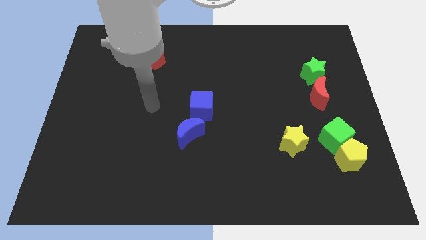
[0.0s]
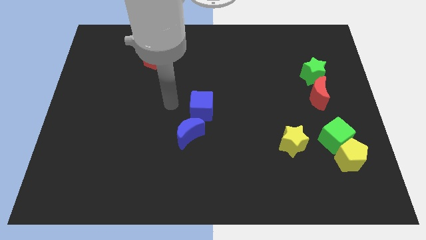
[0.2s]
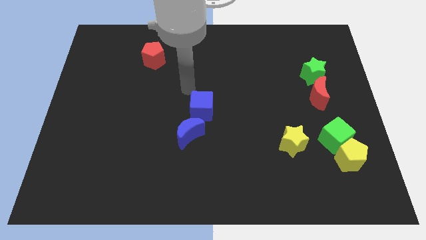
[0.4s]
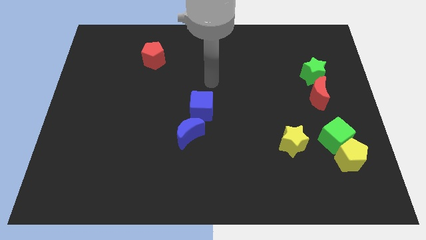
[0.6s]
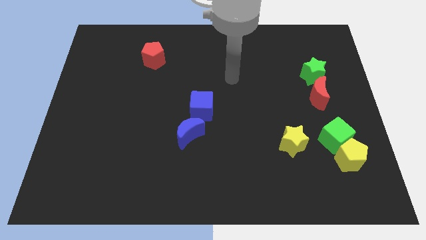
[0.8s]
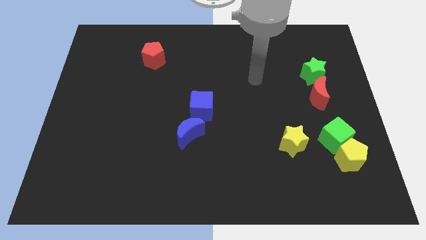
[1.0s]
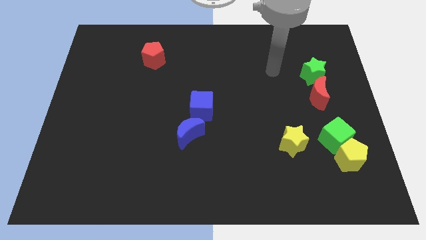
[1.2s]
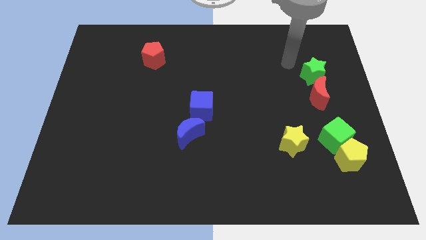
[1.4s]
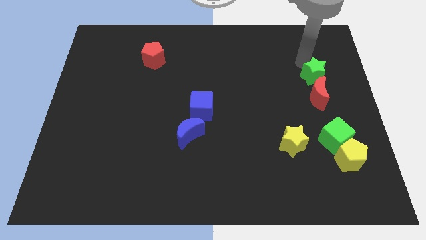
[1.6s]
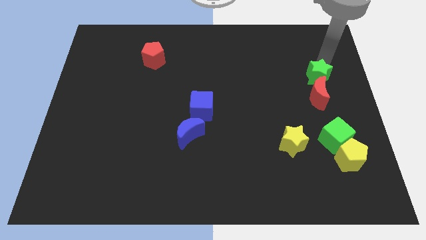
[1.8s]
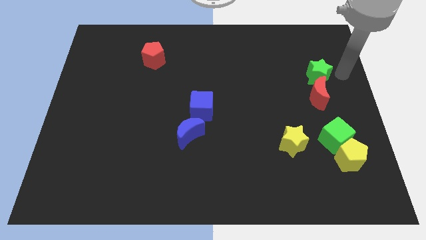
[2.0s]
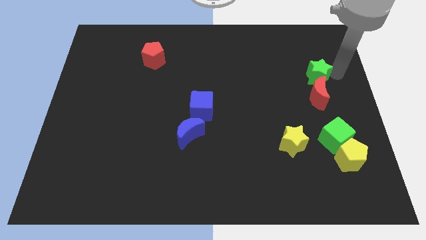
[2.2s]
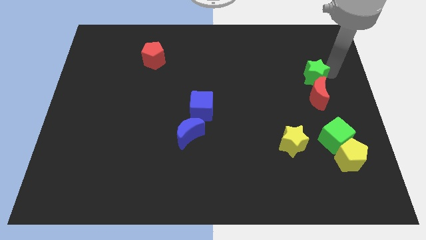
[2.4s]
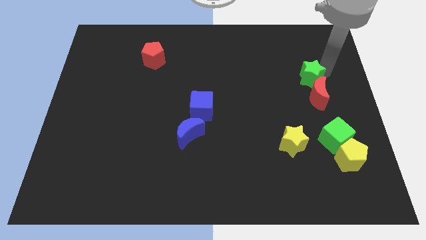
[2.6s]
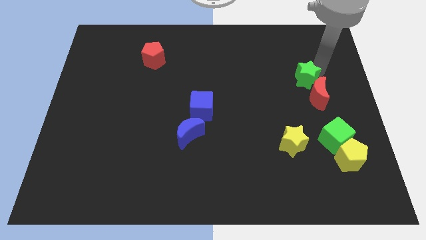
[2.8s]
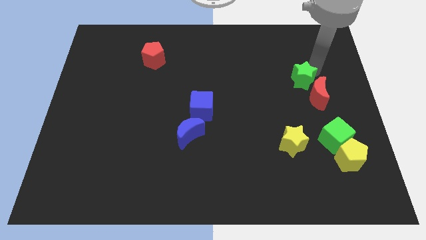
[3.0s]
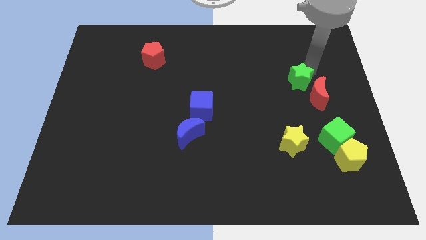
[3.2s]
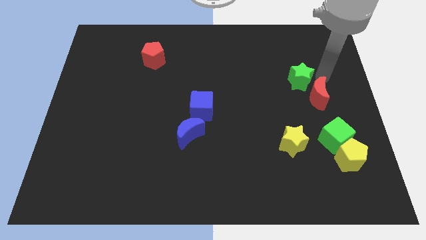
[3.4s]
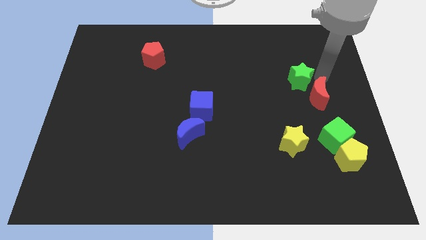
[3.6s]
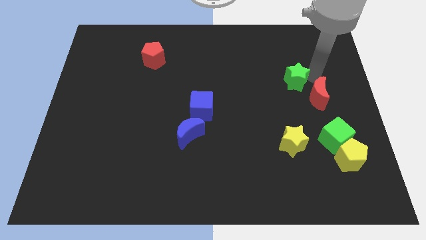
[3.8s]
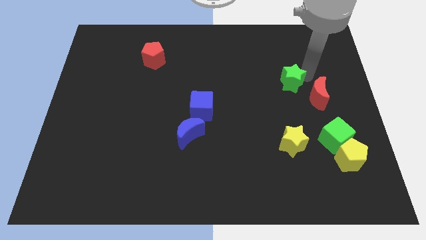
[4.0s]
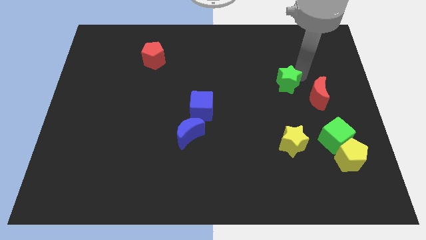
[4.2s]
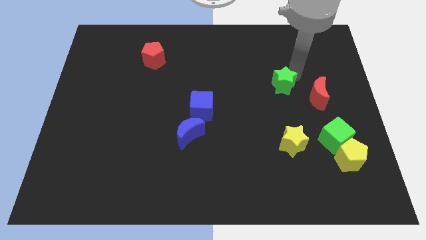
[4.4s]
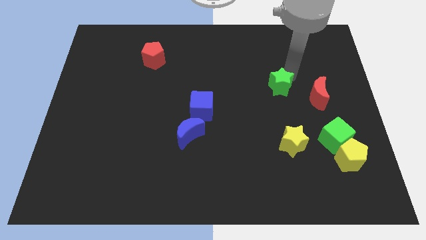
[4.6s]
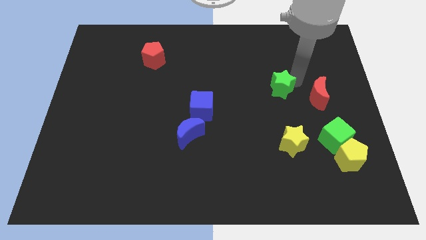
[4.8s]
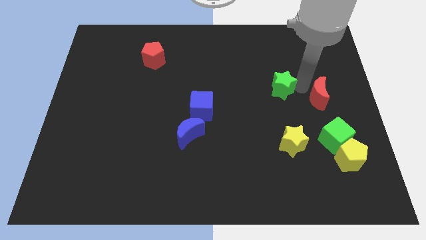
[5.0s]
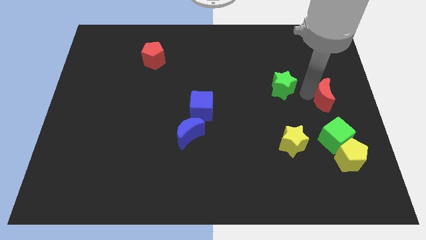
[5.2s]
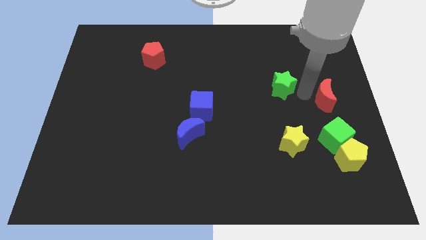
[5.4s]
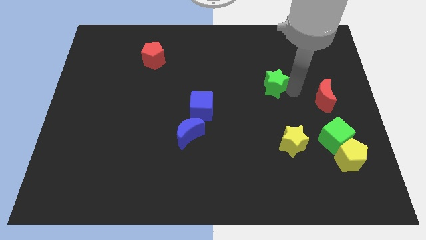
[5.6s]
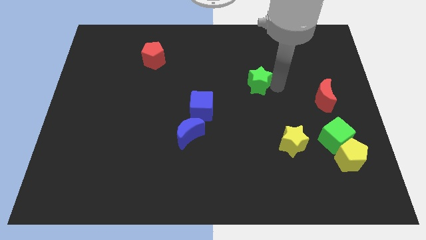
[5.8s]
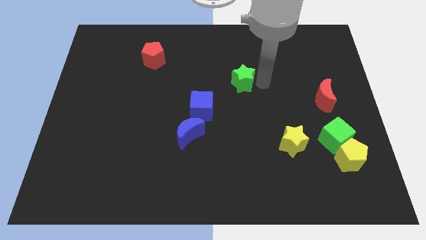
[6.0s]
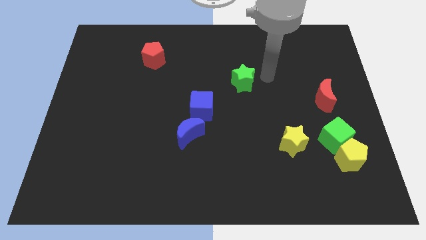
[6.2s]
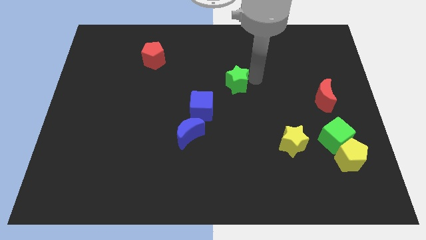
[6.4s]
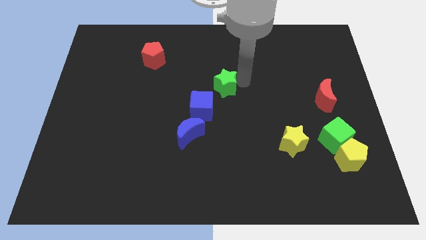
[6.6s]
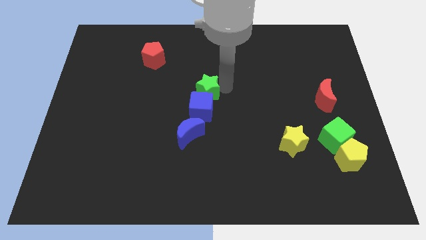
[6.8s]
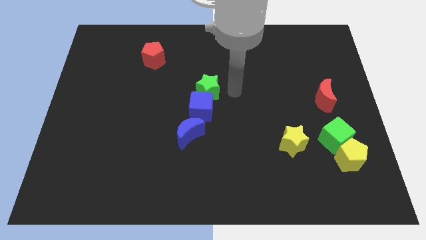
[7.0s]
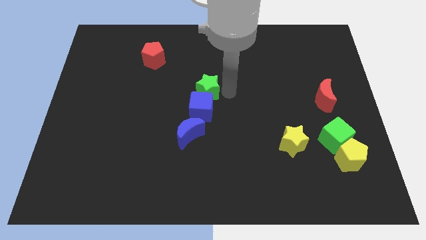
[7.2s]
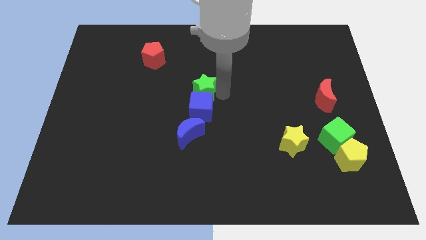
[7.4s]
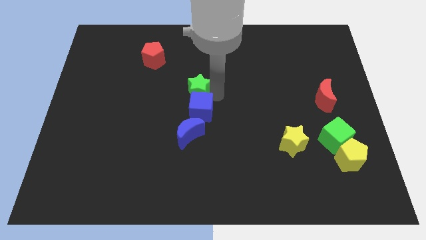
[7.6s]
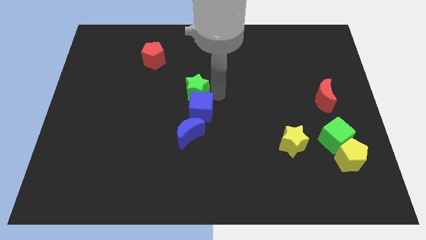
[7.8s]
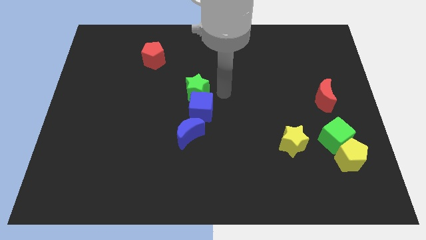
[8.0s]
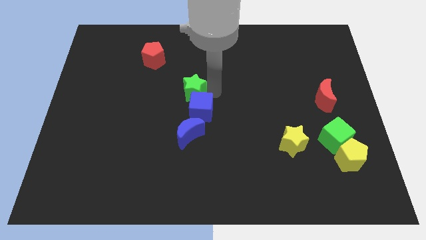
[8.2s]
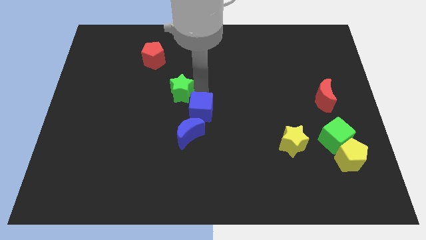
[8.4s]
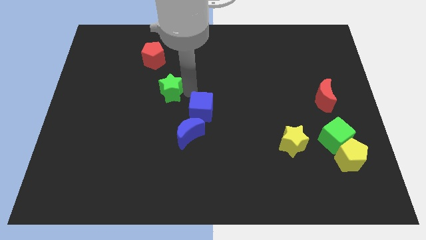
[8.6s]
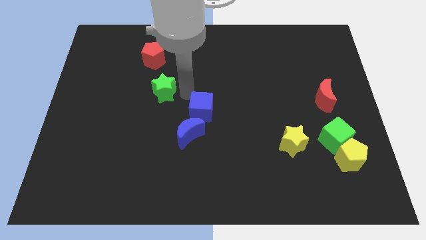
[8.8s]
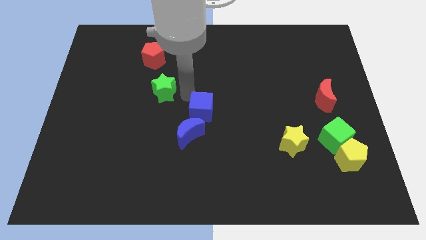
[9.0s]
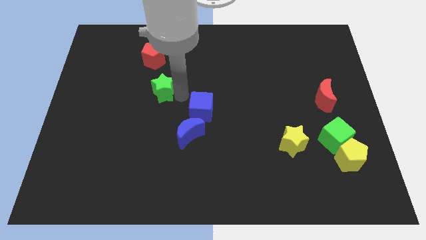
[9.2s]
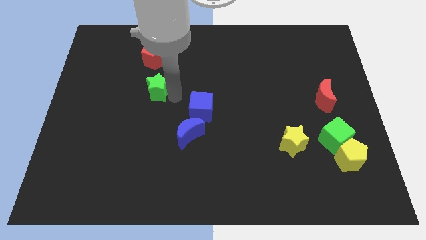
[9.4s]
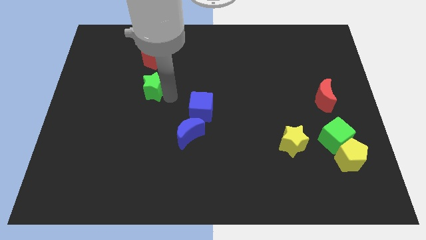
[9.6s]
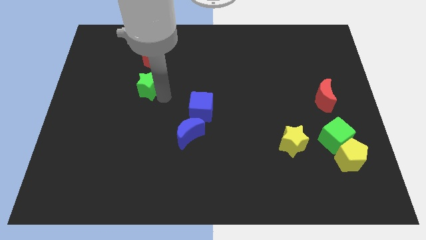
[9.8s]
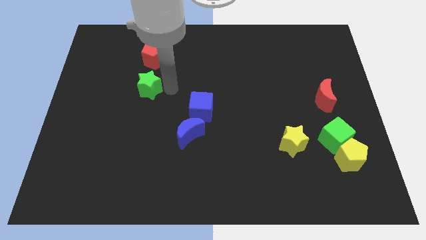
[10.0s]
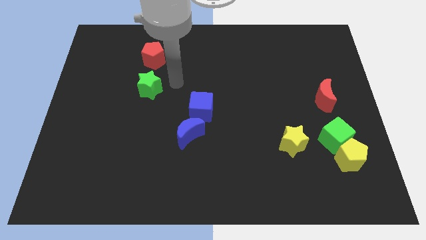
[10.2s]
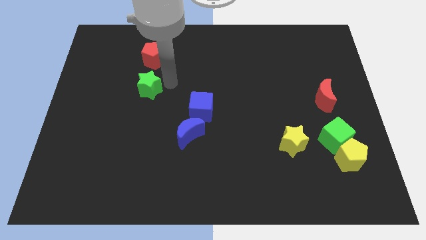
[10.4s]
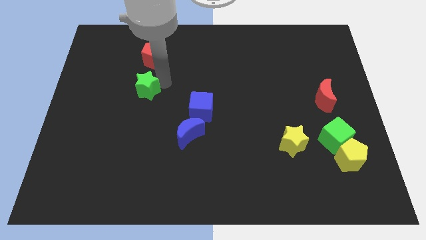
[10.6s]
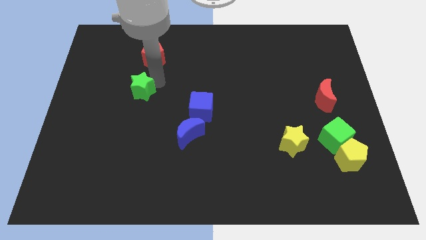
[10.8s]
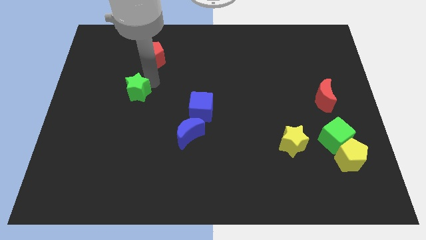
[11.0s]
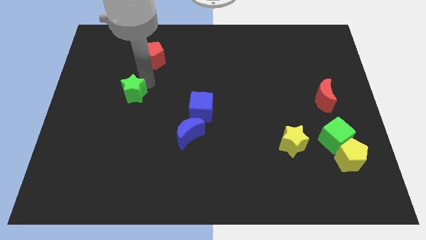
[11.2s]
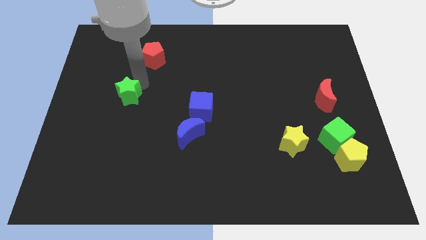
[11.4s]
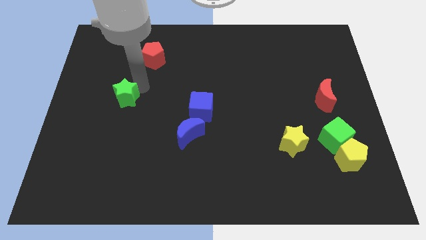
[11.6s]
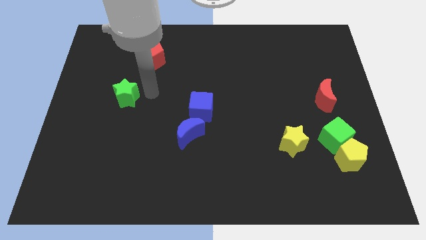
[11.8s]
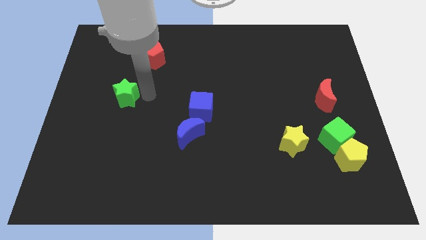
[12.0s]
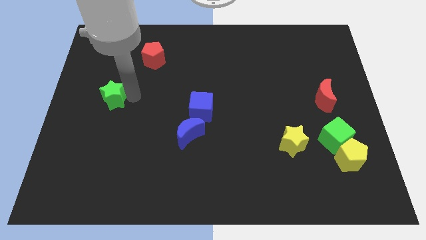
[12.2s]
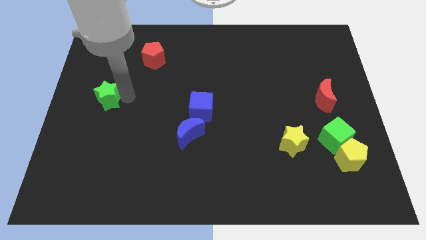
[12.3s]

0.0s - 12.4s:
move the green star to the left side

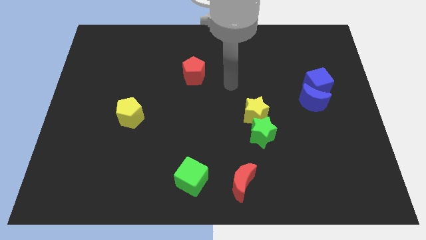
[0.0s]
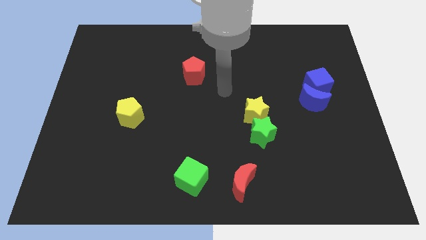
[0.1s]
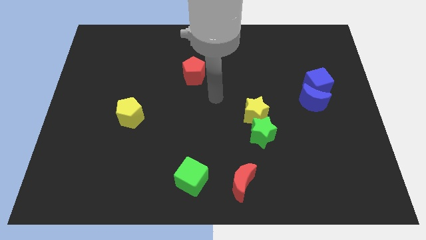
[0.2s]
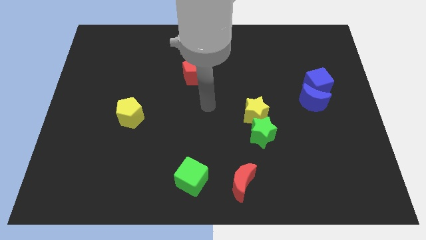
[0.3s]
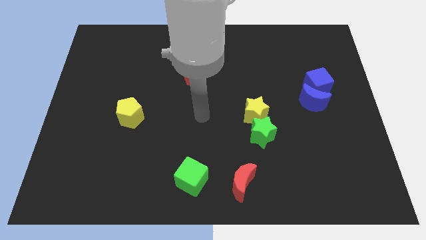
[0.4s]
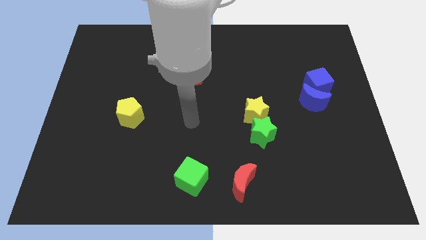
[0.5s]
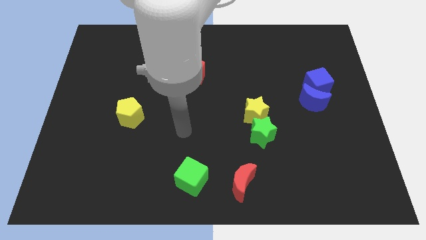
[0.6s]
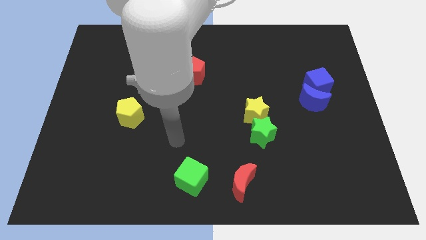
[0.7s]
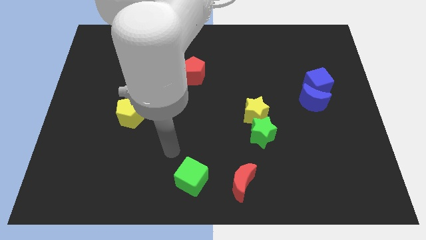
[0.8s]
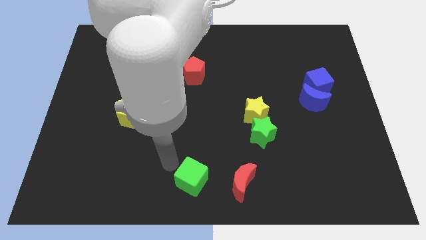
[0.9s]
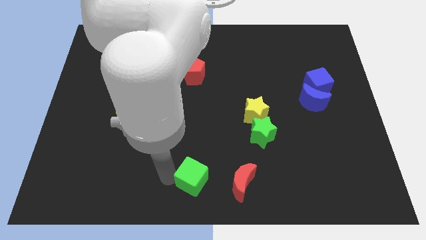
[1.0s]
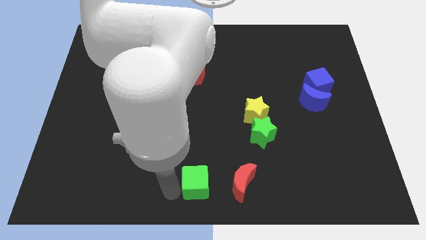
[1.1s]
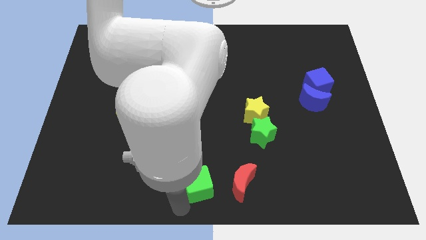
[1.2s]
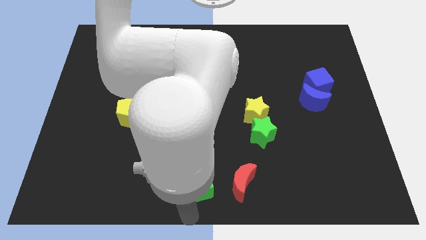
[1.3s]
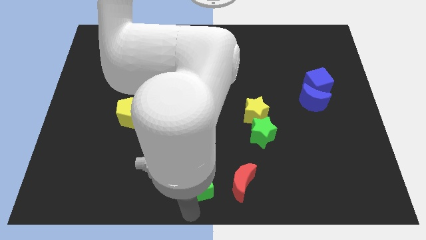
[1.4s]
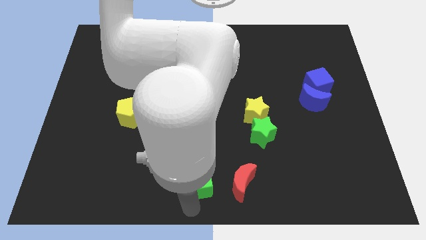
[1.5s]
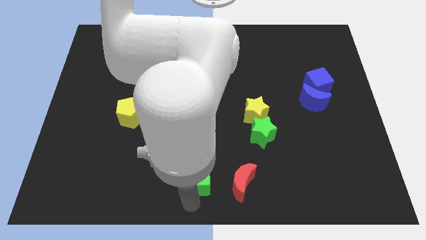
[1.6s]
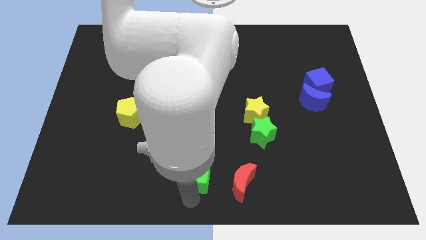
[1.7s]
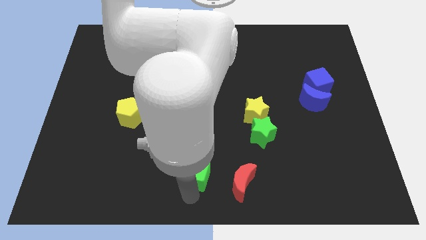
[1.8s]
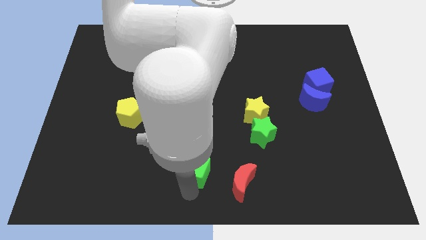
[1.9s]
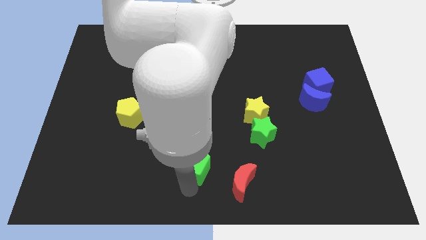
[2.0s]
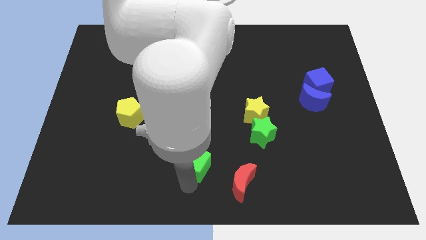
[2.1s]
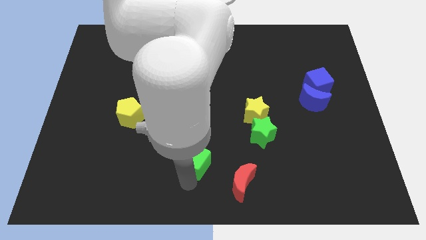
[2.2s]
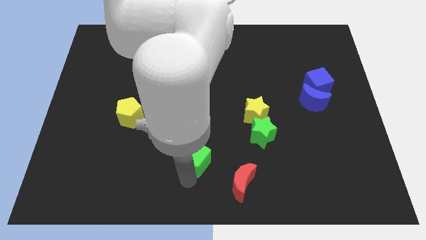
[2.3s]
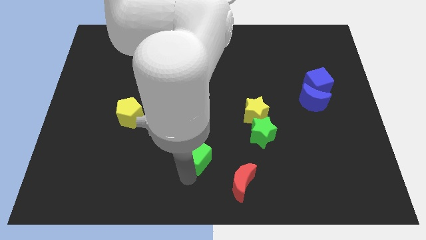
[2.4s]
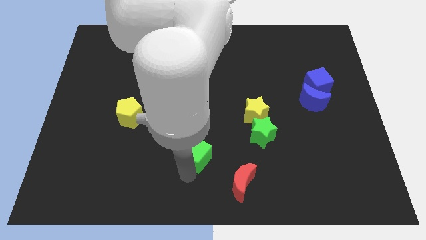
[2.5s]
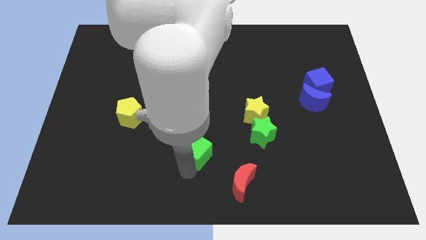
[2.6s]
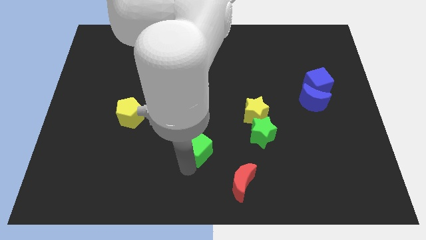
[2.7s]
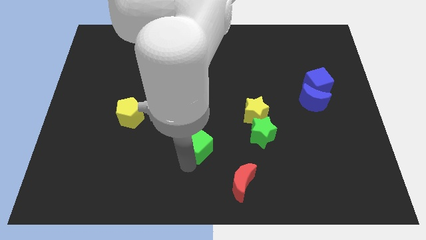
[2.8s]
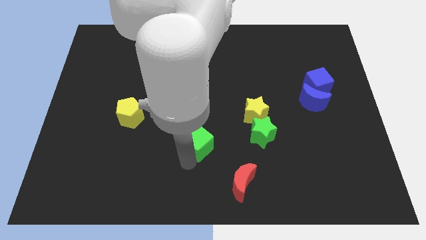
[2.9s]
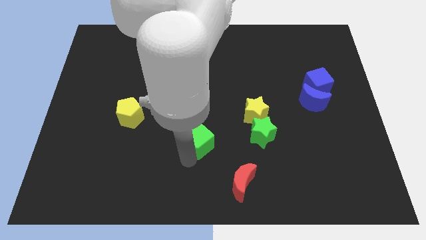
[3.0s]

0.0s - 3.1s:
slide the green cube to the middle
